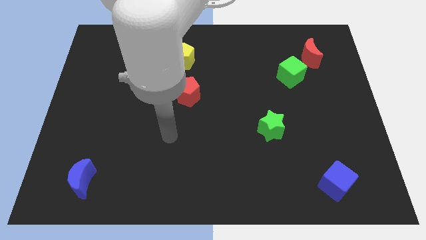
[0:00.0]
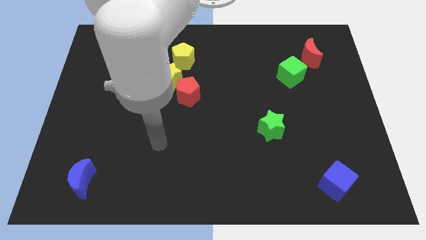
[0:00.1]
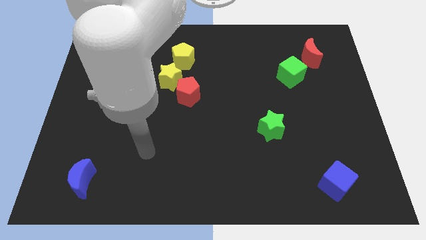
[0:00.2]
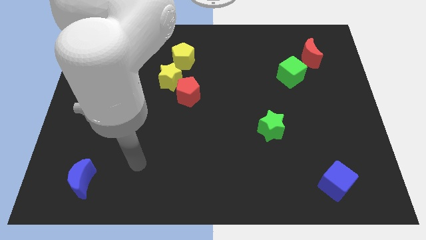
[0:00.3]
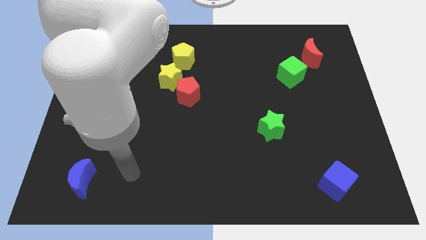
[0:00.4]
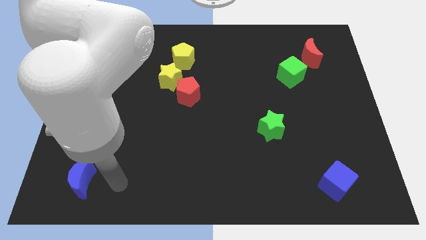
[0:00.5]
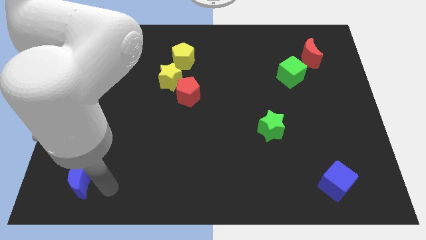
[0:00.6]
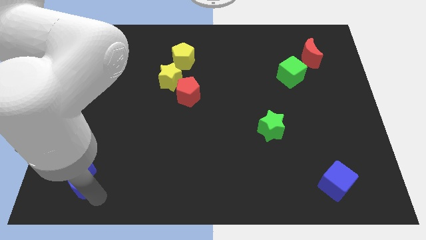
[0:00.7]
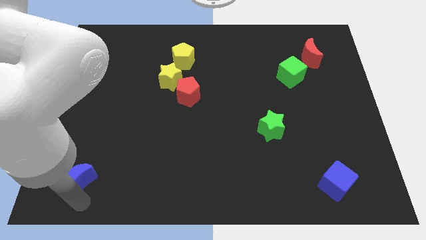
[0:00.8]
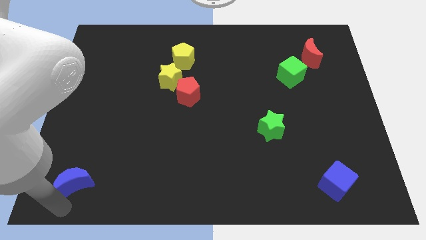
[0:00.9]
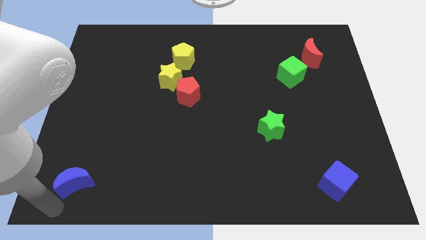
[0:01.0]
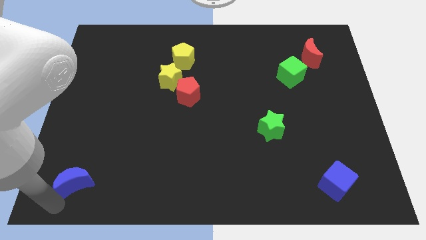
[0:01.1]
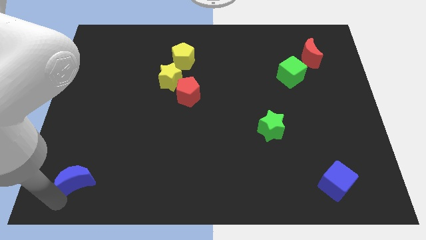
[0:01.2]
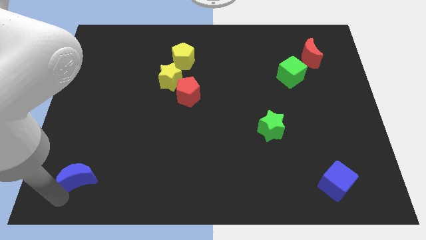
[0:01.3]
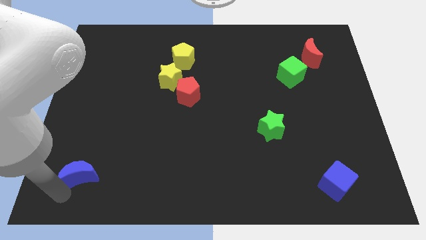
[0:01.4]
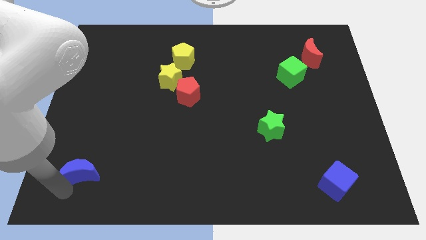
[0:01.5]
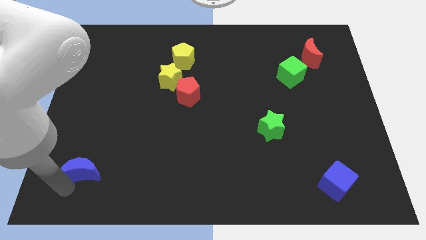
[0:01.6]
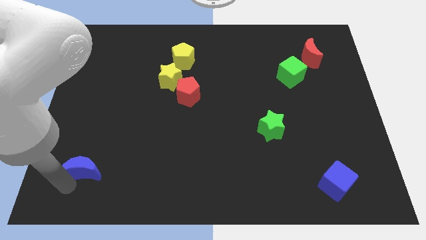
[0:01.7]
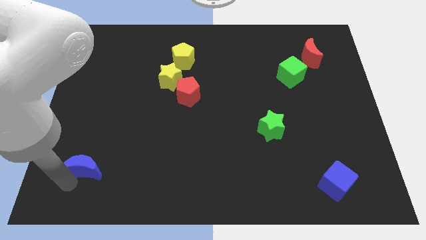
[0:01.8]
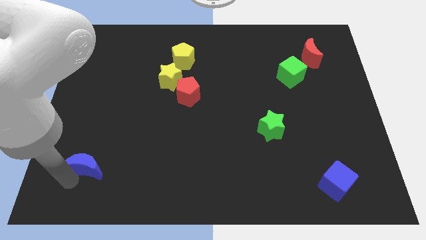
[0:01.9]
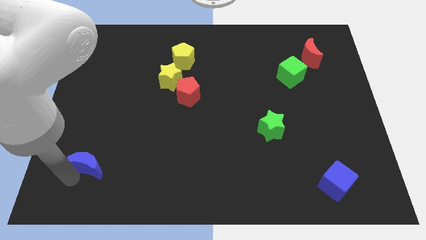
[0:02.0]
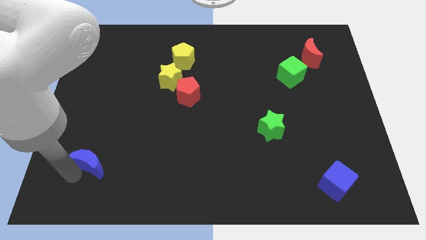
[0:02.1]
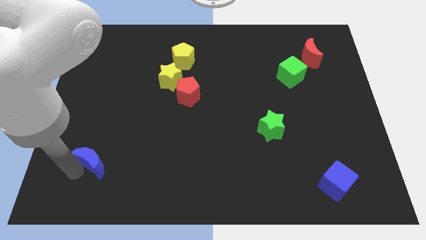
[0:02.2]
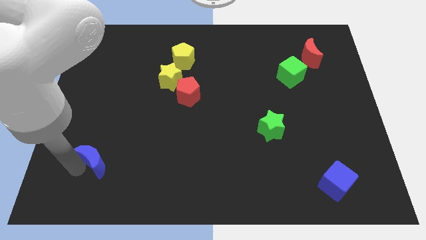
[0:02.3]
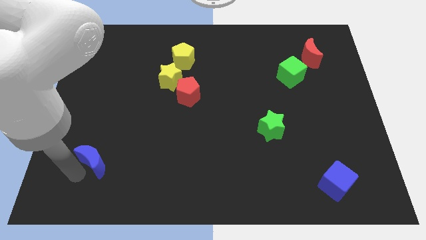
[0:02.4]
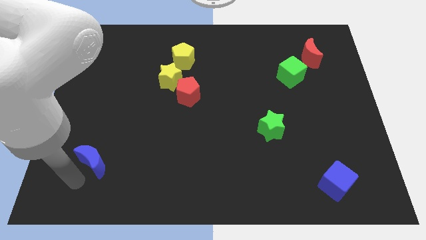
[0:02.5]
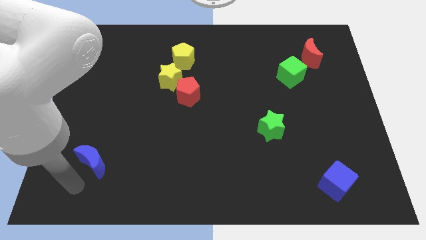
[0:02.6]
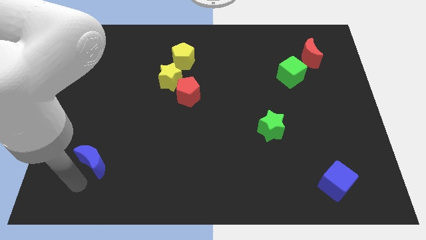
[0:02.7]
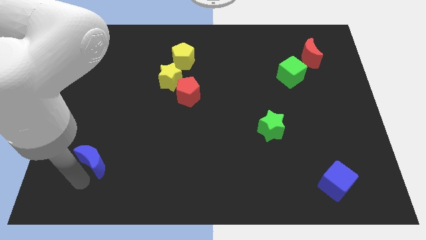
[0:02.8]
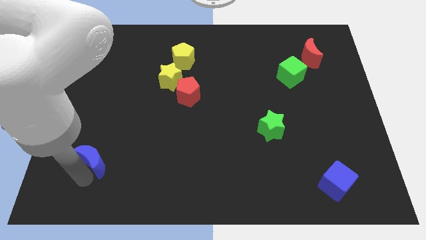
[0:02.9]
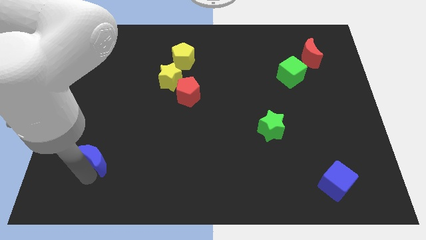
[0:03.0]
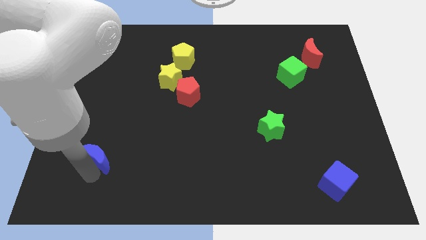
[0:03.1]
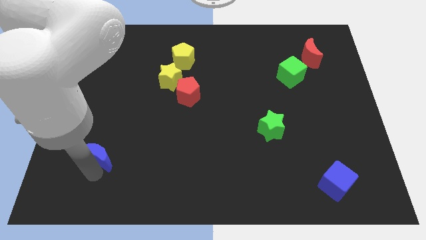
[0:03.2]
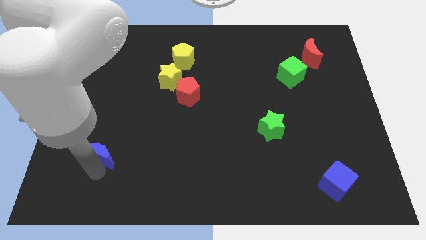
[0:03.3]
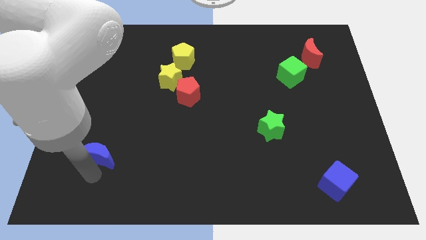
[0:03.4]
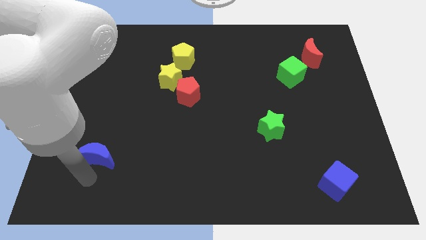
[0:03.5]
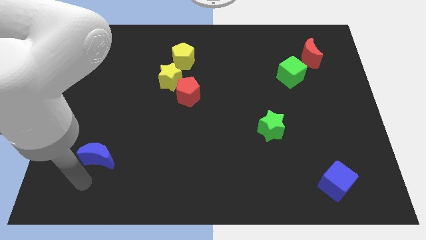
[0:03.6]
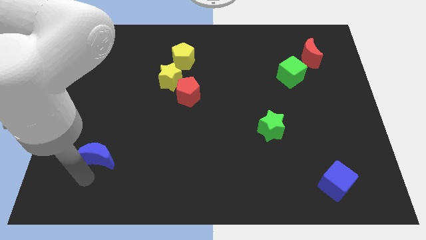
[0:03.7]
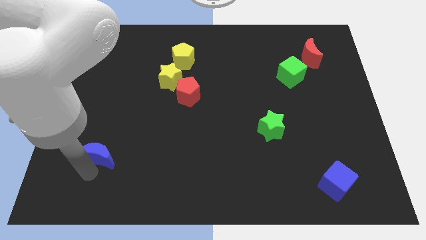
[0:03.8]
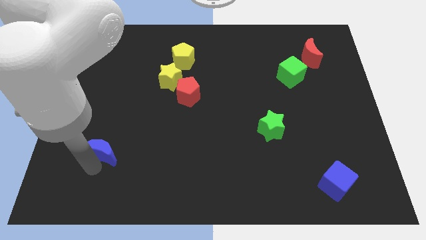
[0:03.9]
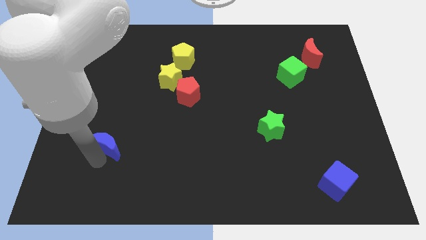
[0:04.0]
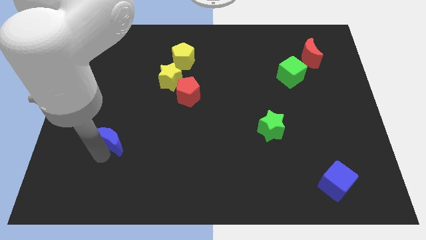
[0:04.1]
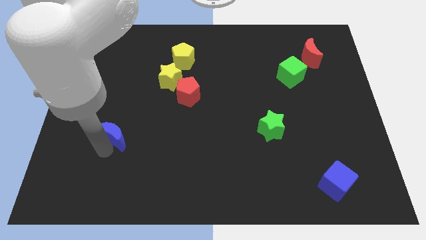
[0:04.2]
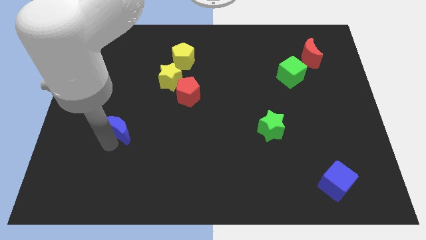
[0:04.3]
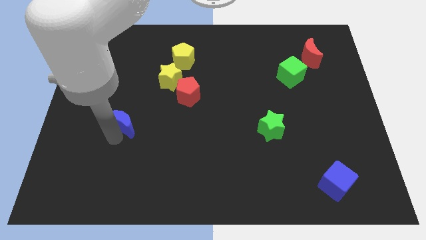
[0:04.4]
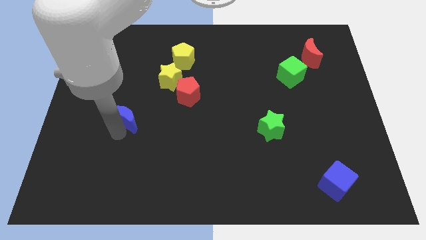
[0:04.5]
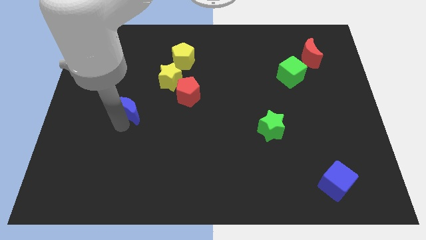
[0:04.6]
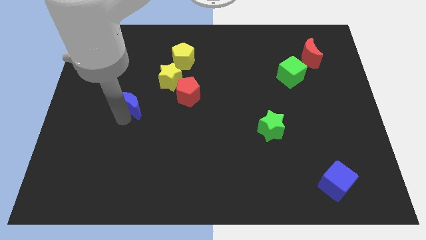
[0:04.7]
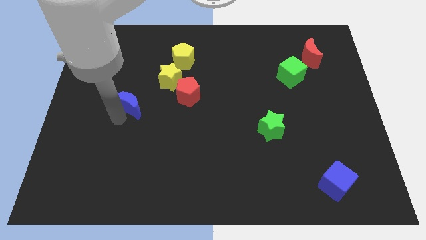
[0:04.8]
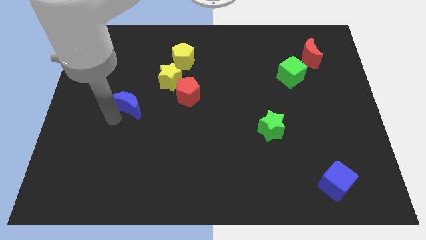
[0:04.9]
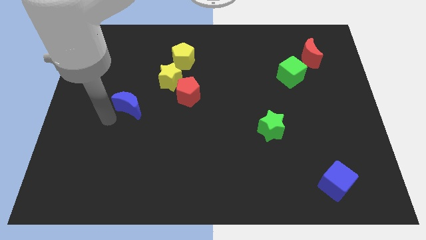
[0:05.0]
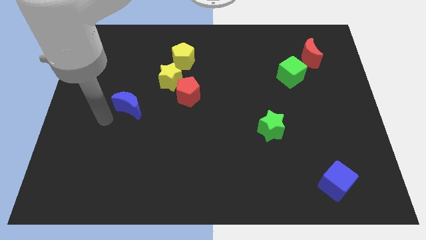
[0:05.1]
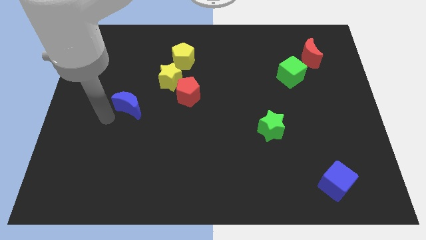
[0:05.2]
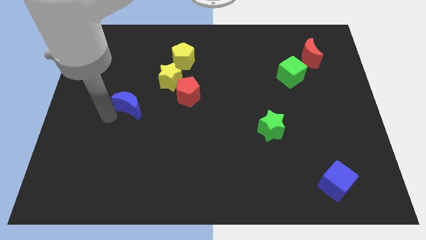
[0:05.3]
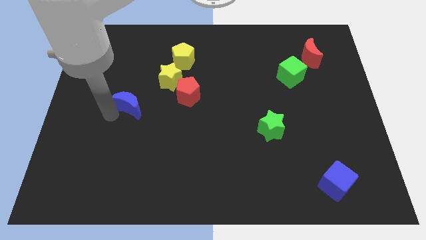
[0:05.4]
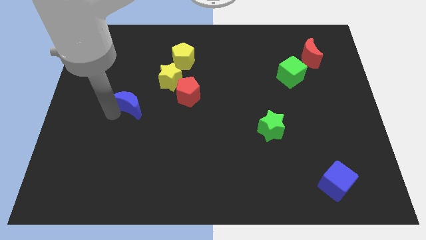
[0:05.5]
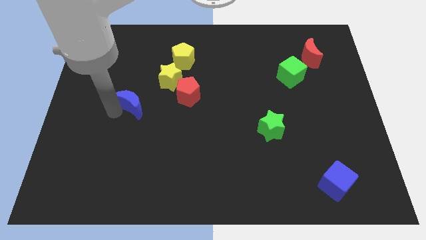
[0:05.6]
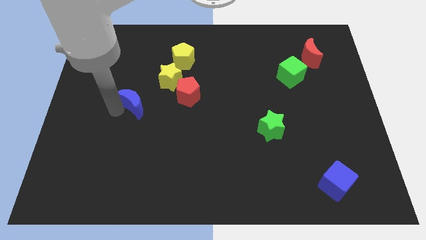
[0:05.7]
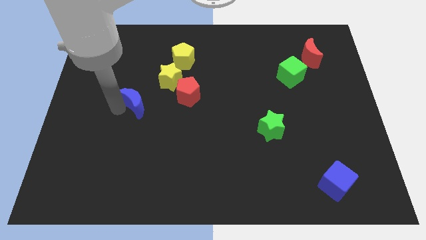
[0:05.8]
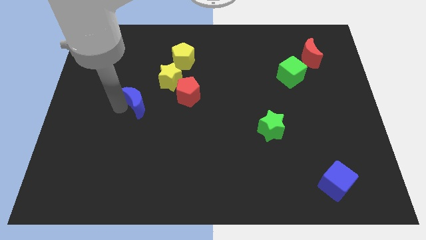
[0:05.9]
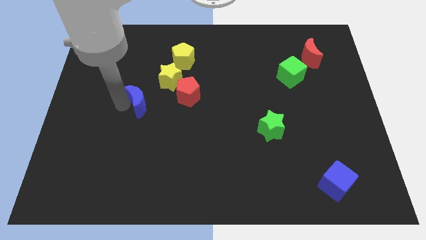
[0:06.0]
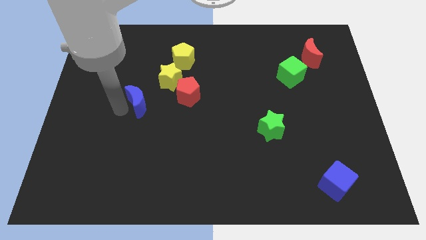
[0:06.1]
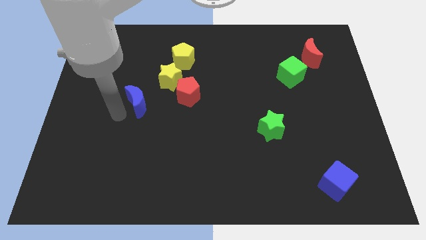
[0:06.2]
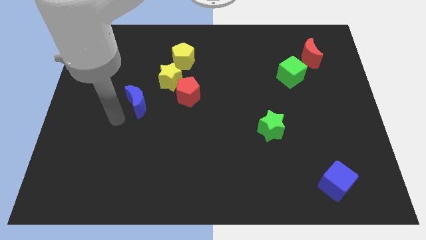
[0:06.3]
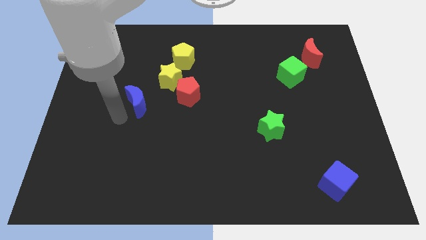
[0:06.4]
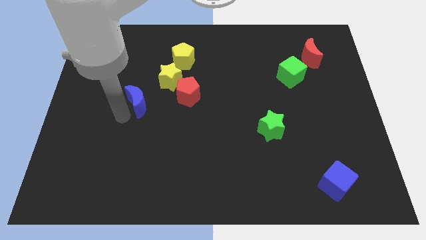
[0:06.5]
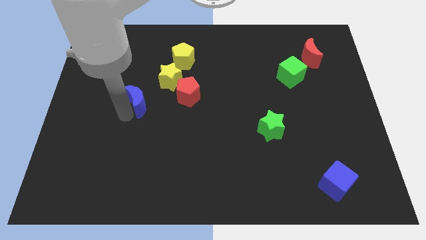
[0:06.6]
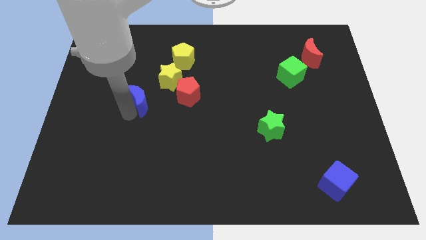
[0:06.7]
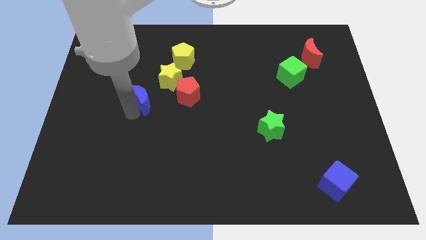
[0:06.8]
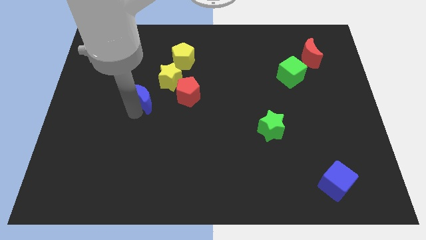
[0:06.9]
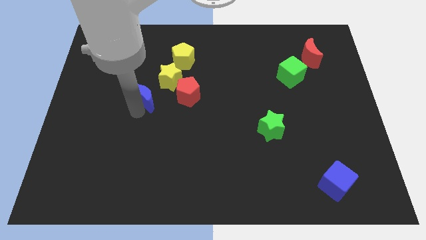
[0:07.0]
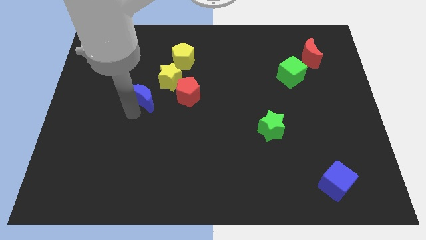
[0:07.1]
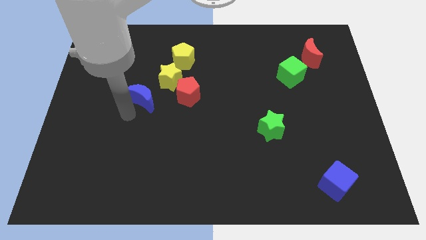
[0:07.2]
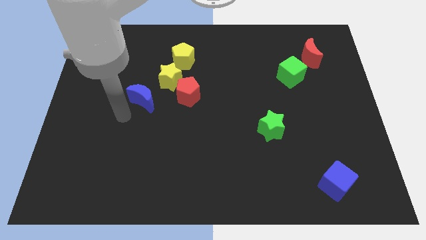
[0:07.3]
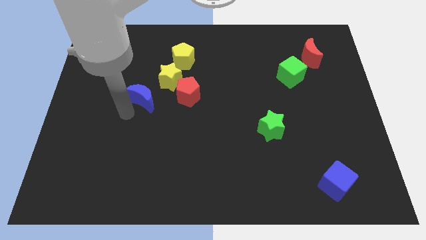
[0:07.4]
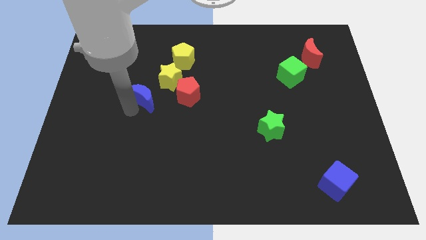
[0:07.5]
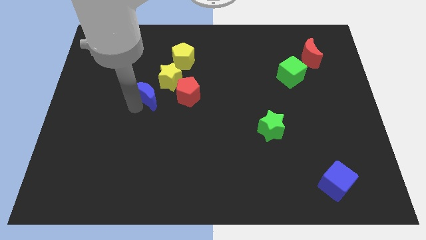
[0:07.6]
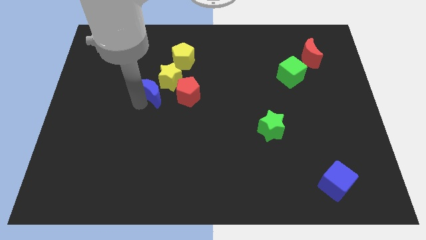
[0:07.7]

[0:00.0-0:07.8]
push the blue moon next to the yellow star
